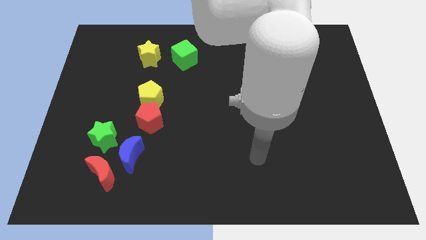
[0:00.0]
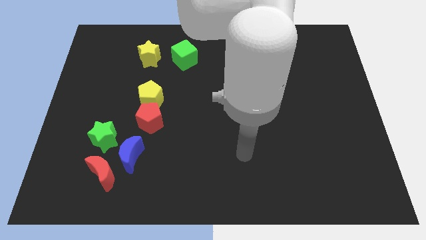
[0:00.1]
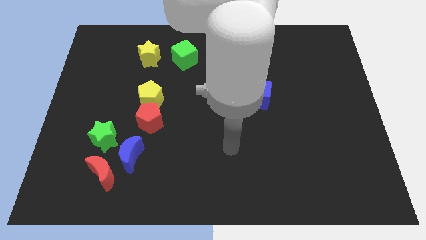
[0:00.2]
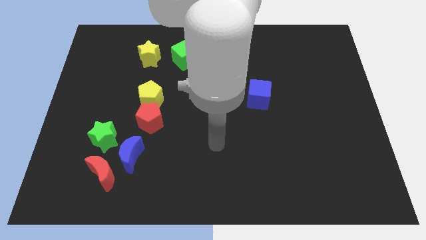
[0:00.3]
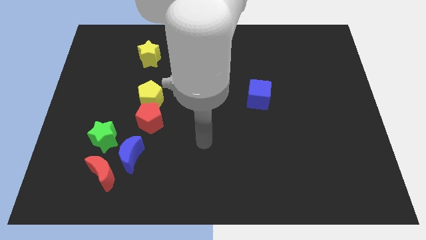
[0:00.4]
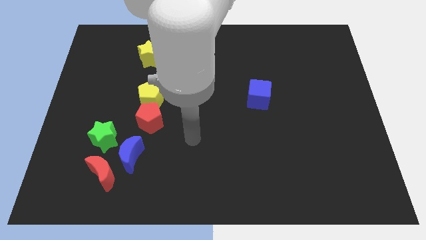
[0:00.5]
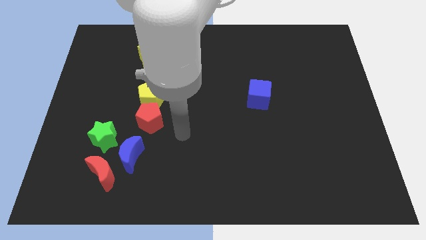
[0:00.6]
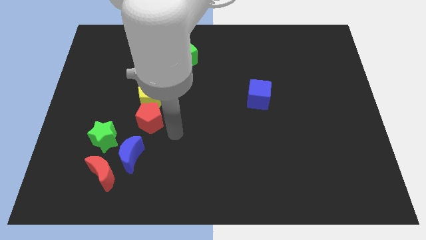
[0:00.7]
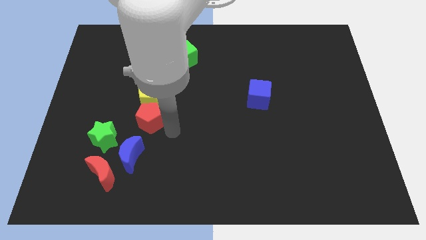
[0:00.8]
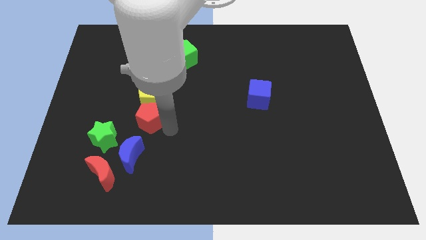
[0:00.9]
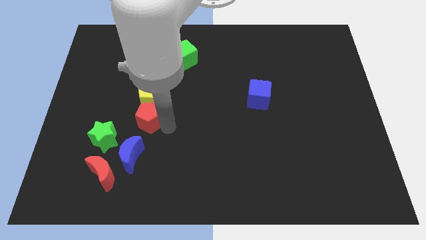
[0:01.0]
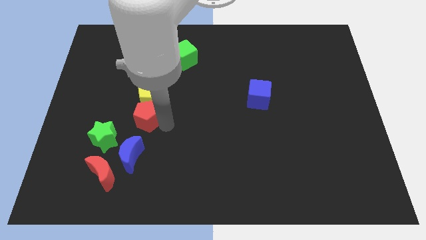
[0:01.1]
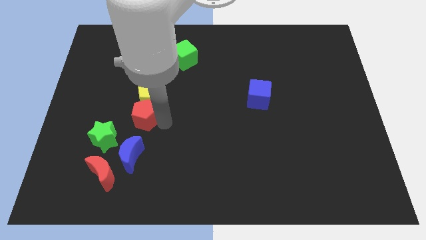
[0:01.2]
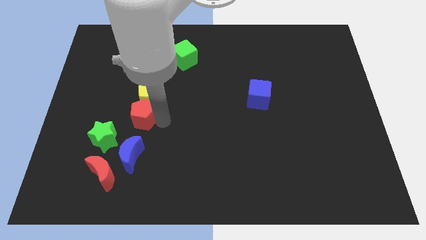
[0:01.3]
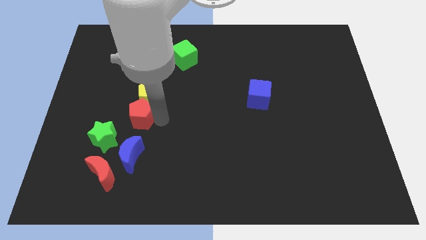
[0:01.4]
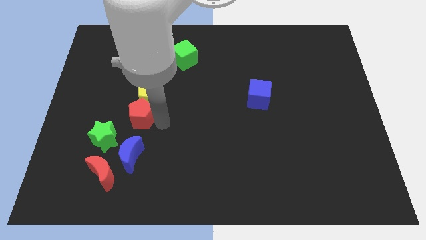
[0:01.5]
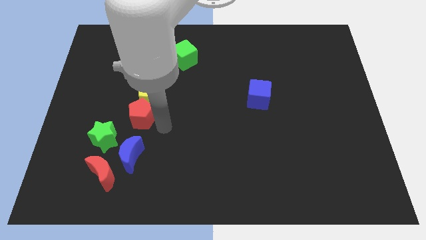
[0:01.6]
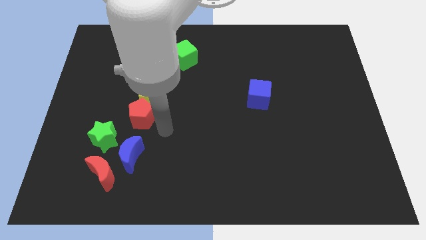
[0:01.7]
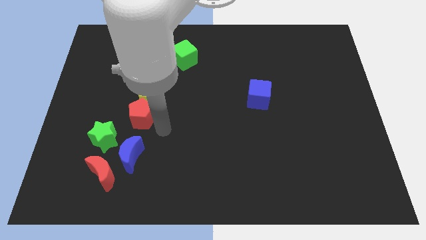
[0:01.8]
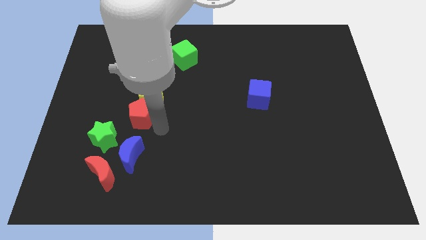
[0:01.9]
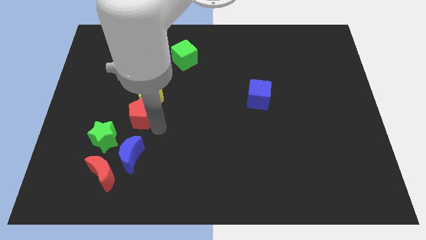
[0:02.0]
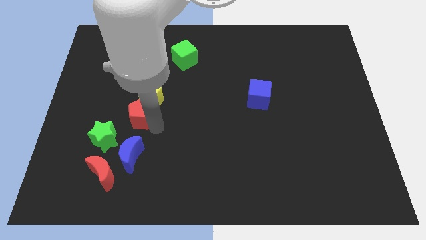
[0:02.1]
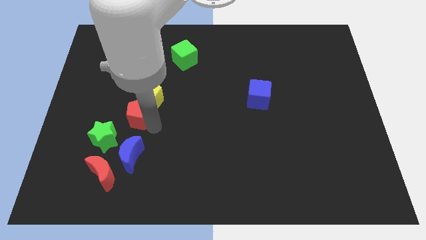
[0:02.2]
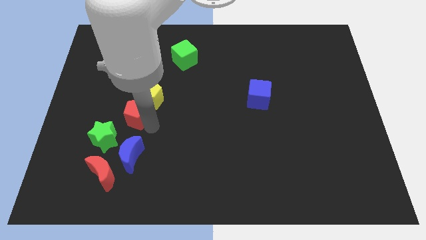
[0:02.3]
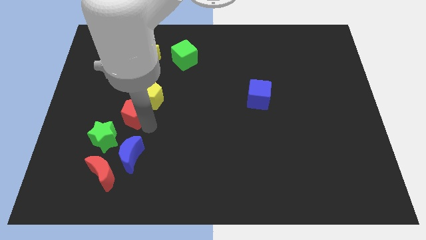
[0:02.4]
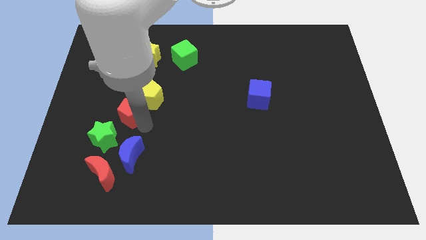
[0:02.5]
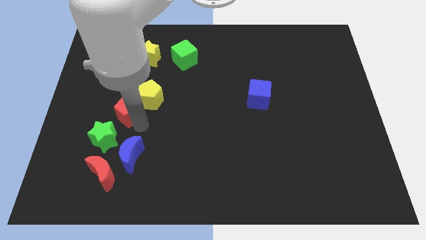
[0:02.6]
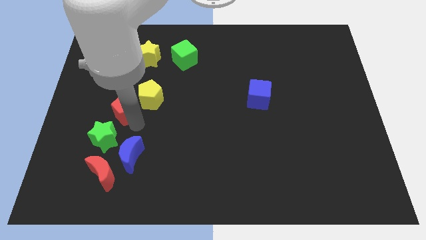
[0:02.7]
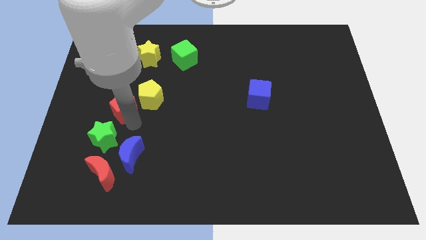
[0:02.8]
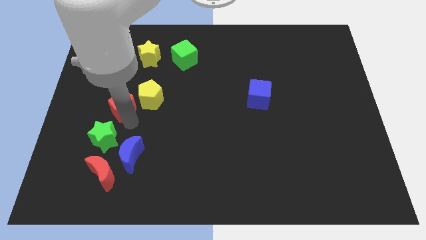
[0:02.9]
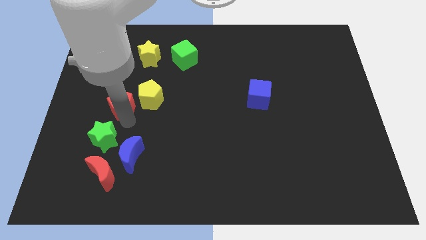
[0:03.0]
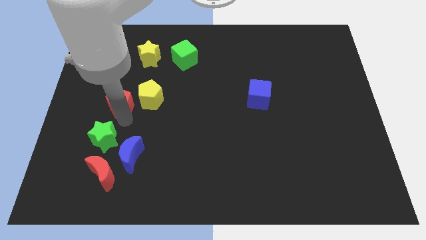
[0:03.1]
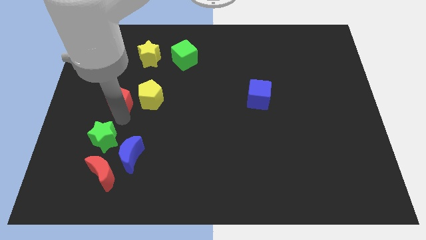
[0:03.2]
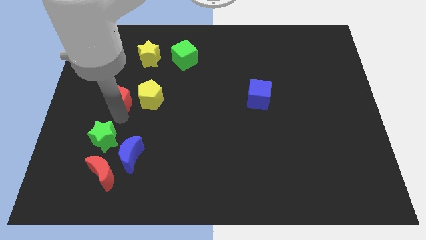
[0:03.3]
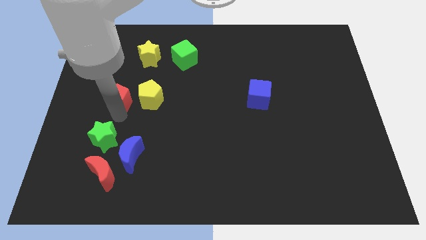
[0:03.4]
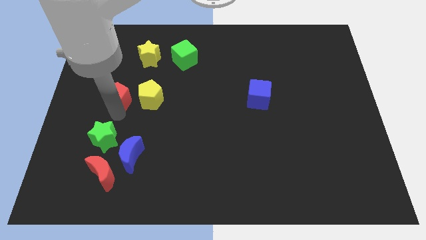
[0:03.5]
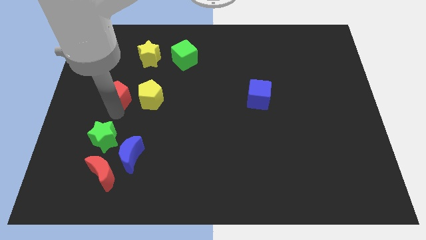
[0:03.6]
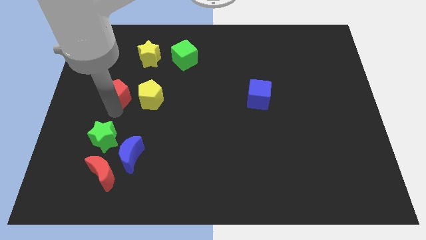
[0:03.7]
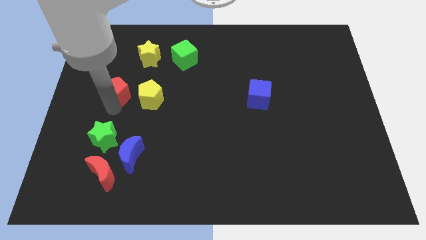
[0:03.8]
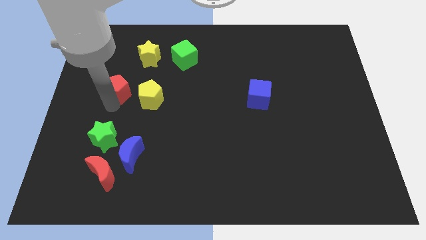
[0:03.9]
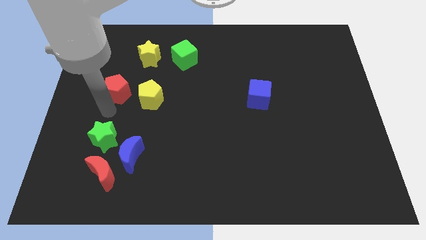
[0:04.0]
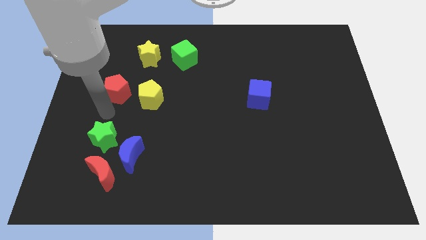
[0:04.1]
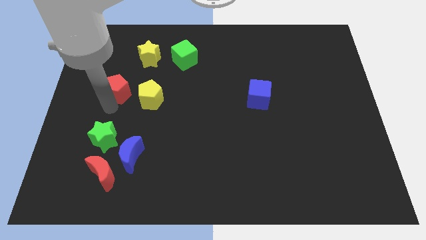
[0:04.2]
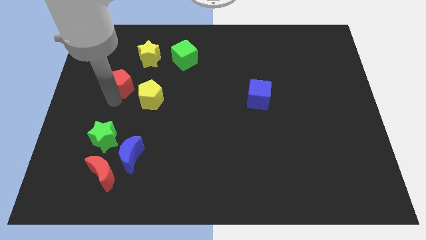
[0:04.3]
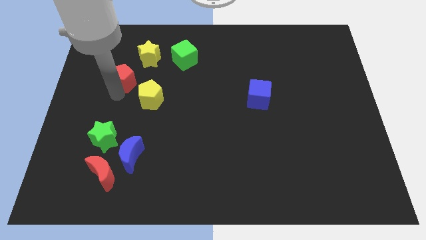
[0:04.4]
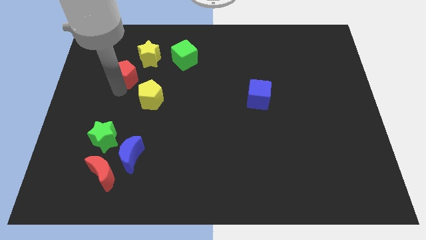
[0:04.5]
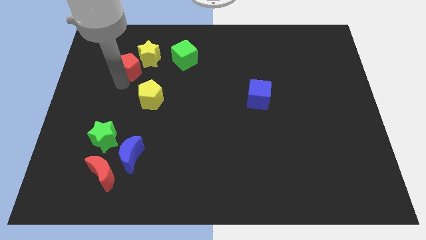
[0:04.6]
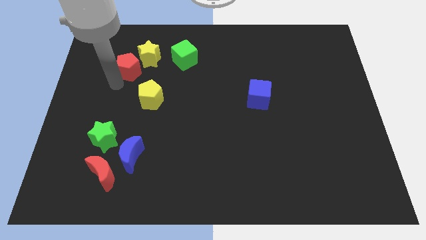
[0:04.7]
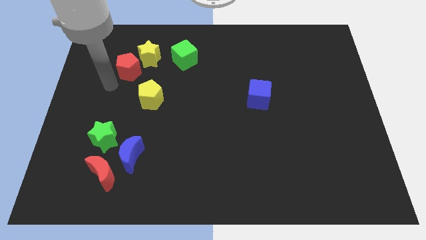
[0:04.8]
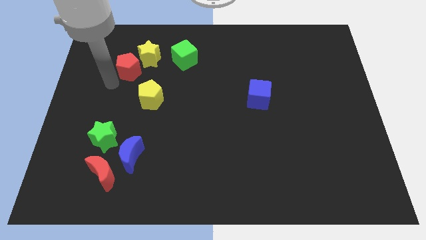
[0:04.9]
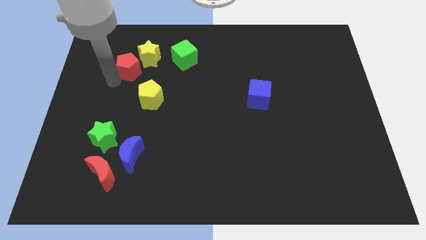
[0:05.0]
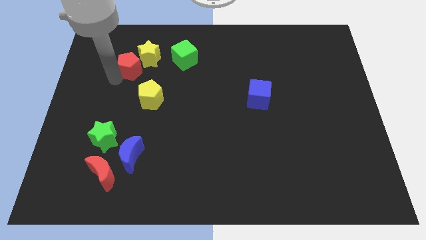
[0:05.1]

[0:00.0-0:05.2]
push the red pentagon to the left side of the green cube

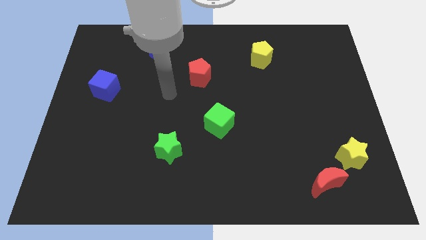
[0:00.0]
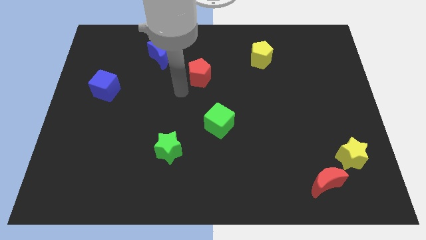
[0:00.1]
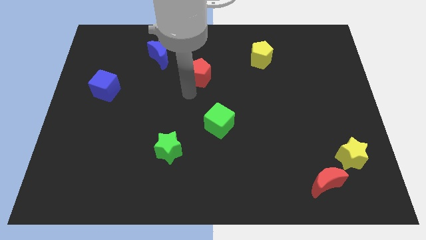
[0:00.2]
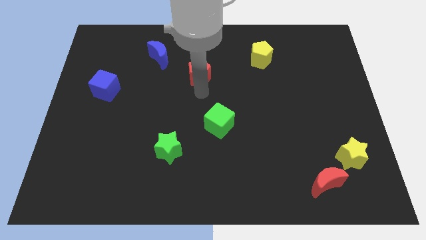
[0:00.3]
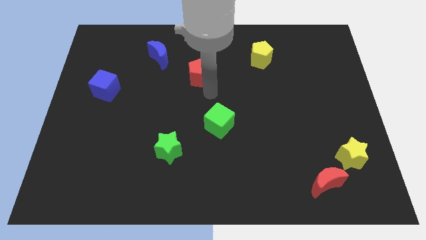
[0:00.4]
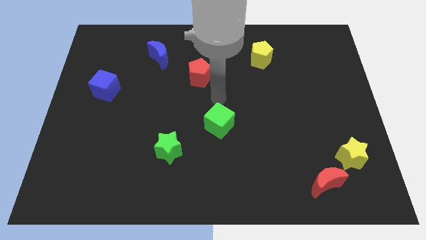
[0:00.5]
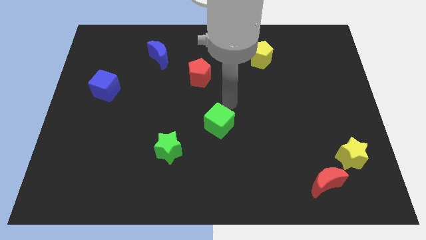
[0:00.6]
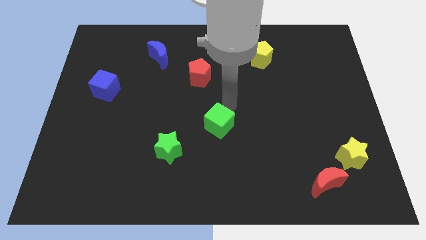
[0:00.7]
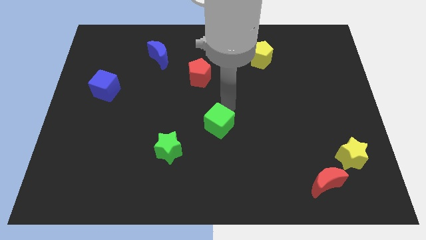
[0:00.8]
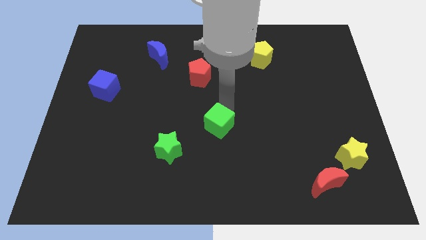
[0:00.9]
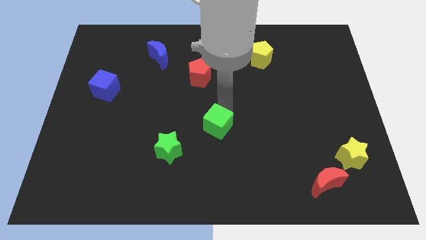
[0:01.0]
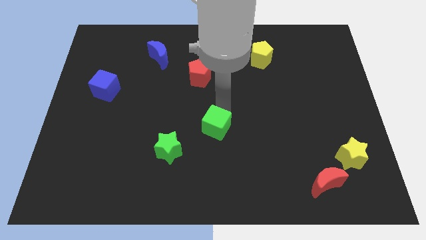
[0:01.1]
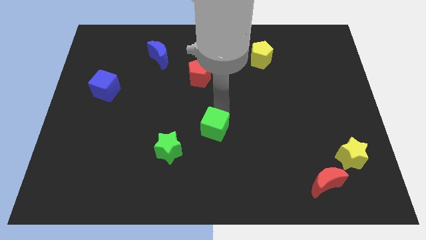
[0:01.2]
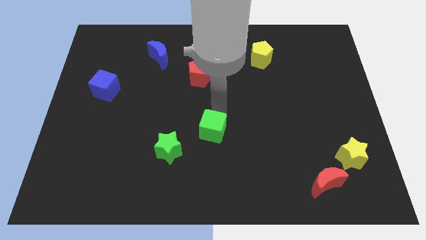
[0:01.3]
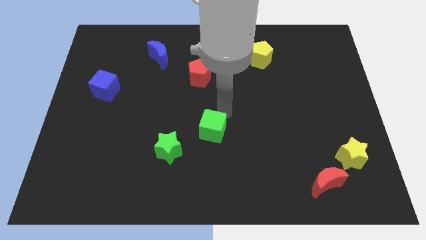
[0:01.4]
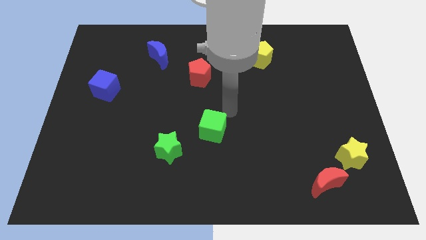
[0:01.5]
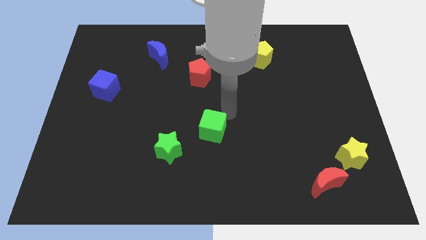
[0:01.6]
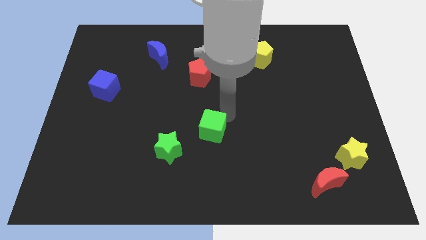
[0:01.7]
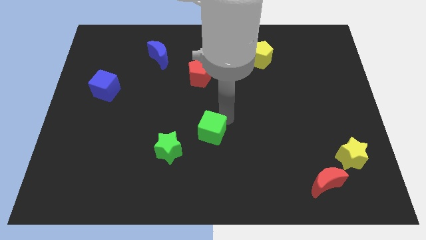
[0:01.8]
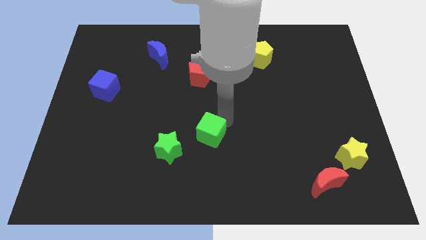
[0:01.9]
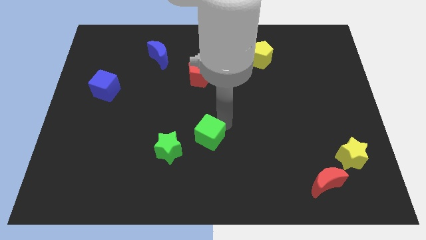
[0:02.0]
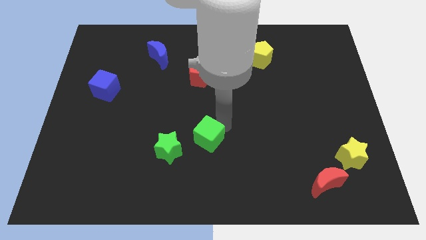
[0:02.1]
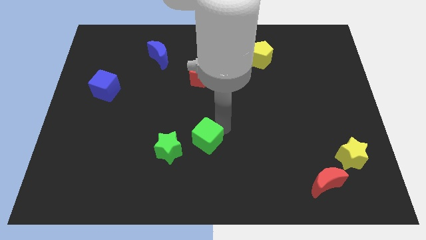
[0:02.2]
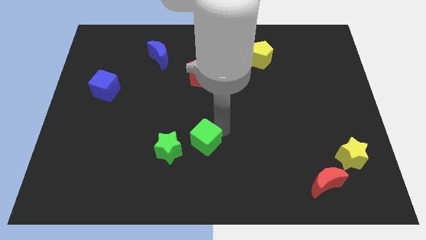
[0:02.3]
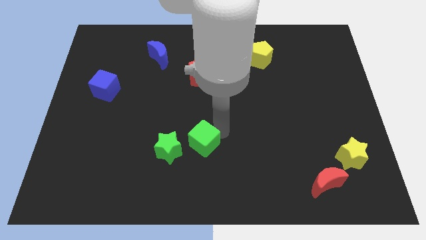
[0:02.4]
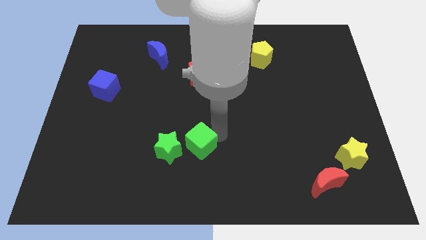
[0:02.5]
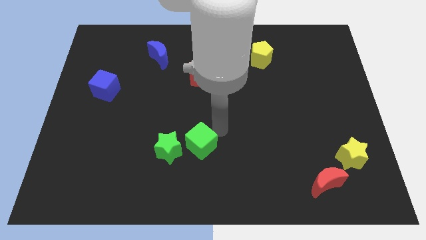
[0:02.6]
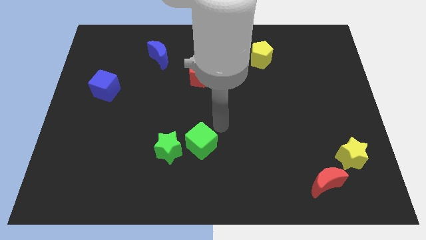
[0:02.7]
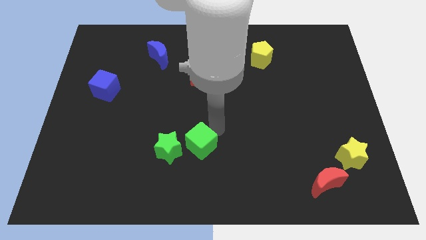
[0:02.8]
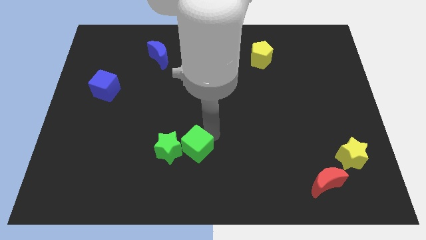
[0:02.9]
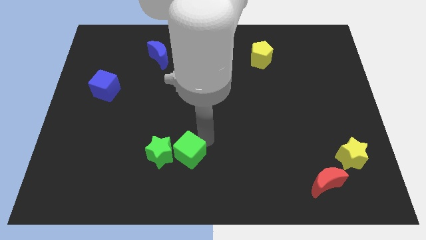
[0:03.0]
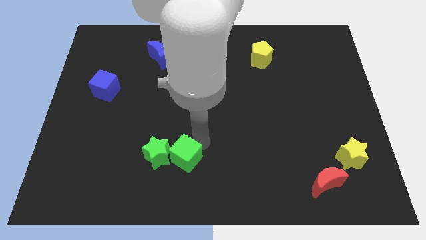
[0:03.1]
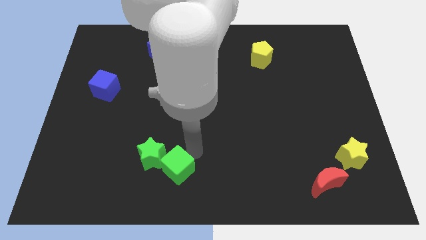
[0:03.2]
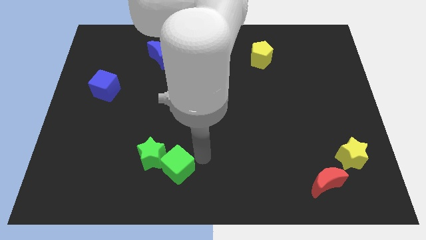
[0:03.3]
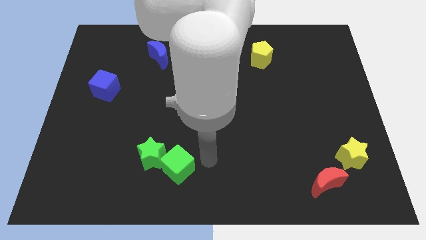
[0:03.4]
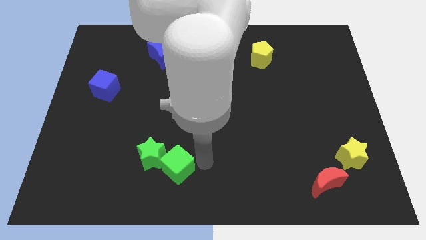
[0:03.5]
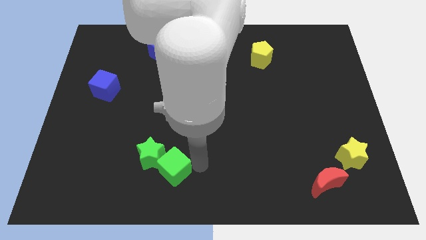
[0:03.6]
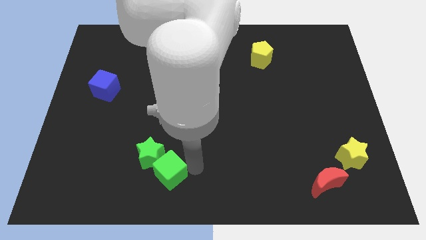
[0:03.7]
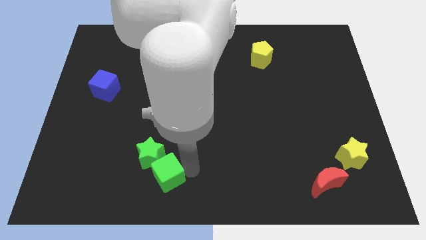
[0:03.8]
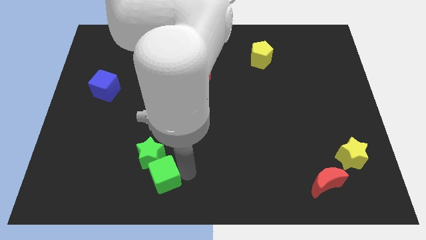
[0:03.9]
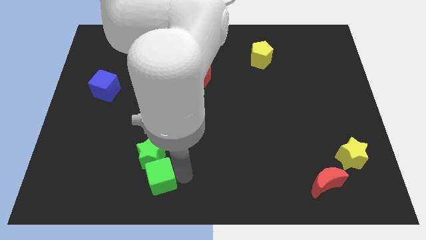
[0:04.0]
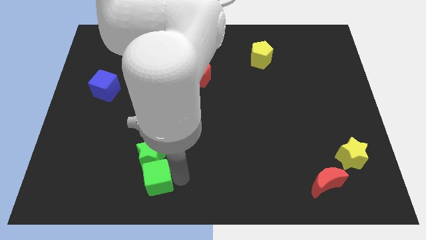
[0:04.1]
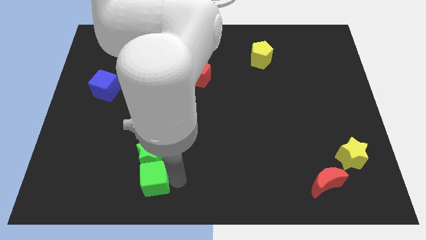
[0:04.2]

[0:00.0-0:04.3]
put the green cube to the bottom left side of the green star
